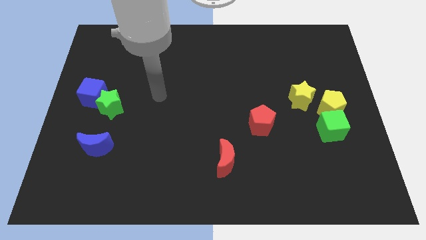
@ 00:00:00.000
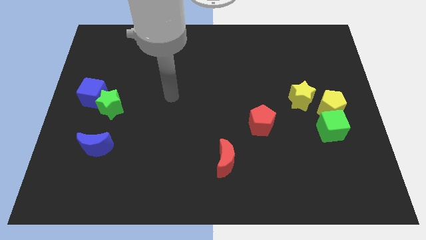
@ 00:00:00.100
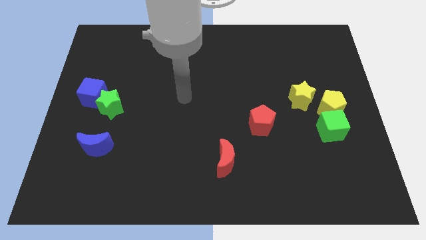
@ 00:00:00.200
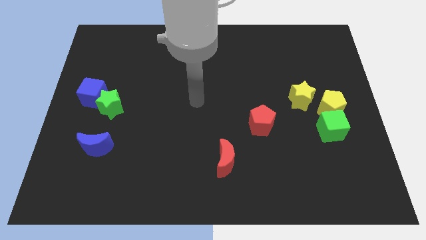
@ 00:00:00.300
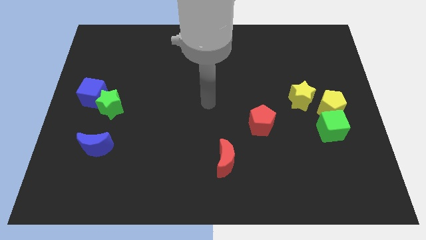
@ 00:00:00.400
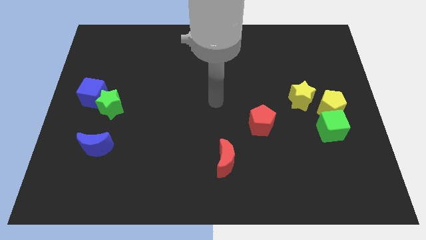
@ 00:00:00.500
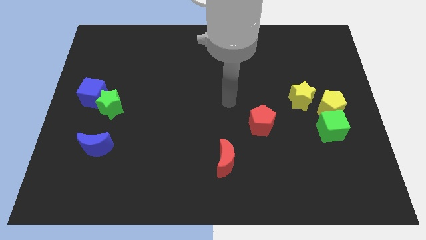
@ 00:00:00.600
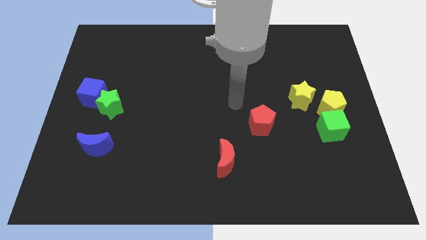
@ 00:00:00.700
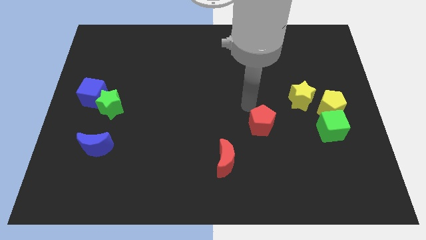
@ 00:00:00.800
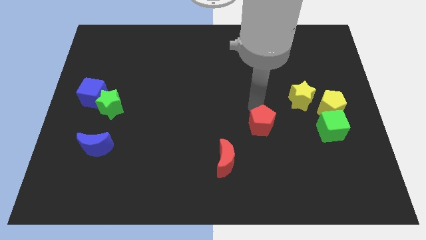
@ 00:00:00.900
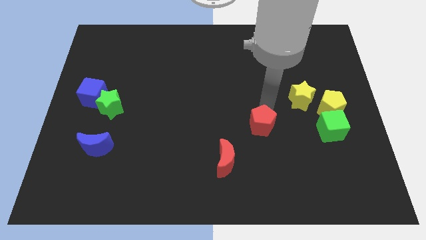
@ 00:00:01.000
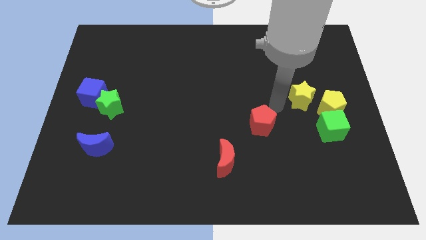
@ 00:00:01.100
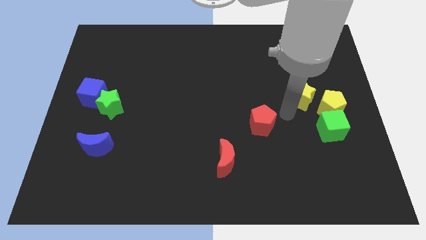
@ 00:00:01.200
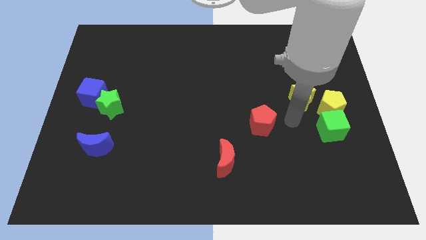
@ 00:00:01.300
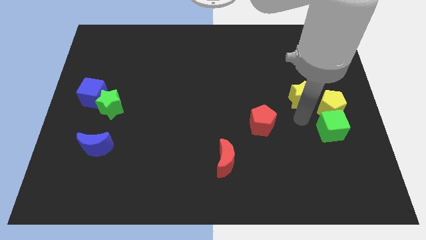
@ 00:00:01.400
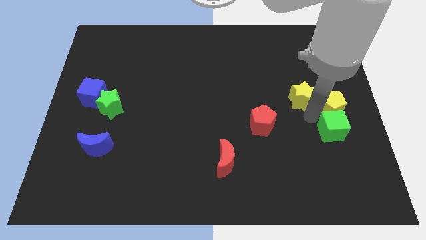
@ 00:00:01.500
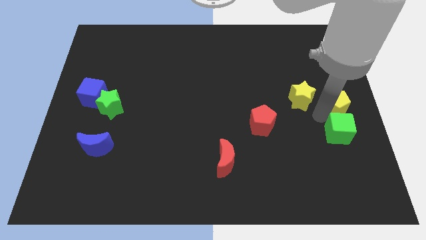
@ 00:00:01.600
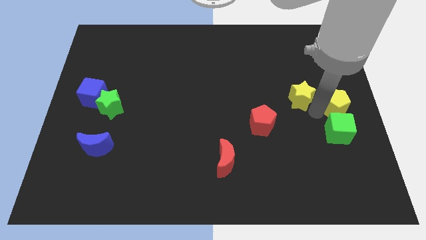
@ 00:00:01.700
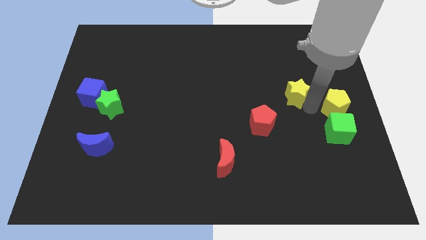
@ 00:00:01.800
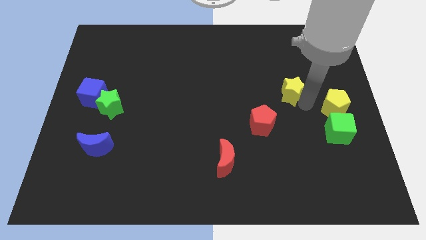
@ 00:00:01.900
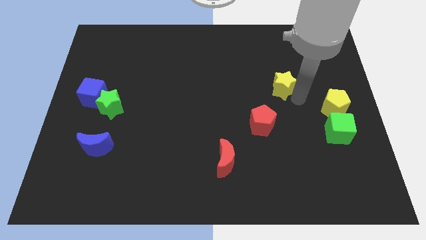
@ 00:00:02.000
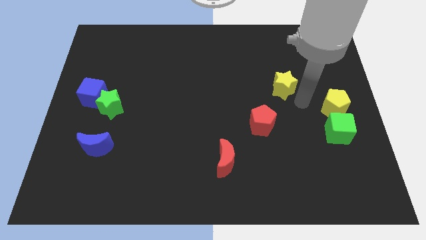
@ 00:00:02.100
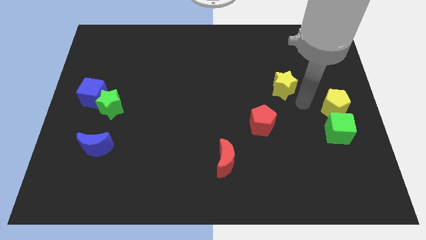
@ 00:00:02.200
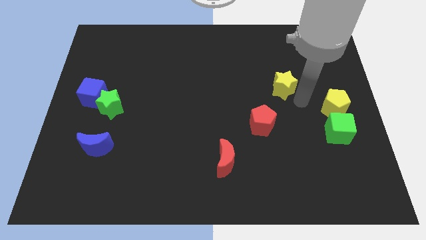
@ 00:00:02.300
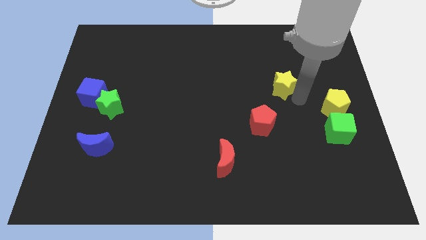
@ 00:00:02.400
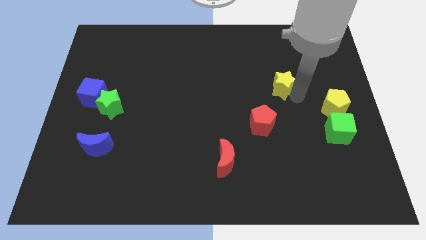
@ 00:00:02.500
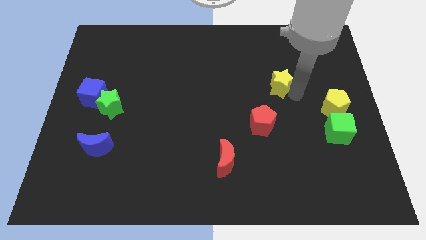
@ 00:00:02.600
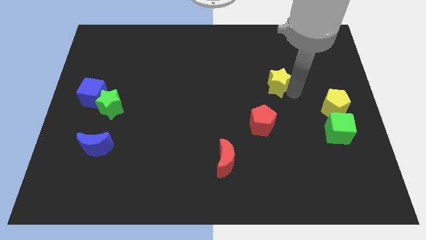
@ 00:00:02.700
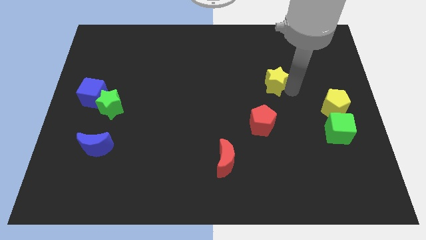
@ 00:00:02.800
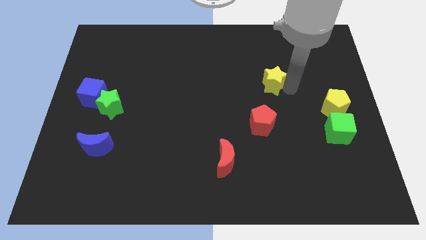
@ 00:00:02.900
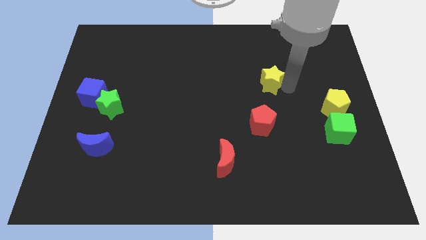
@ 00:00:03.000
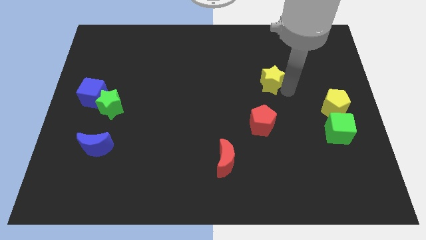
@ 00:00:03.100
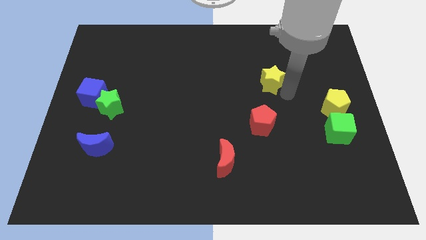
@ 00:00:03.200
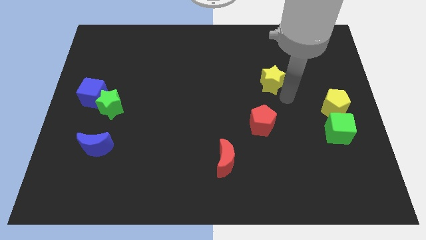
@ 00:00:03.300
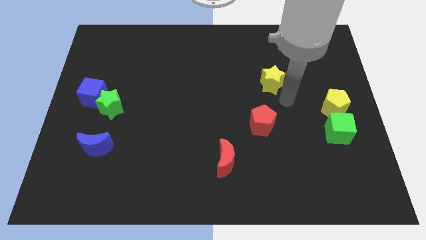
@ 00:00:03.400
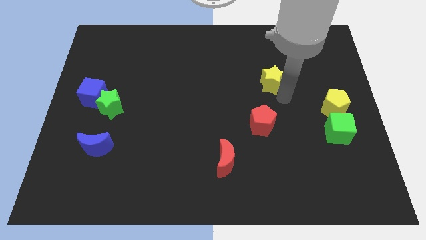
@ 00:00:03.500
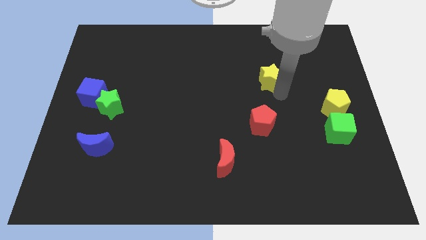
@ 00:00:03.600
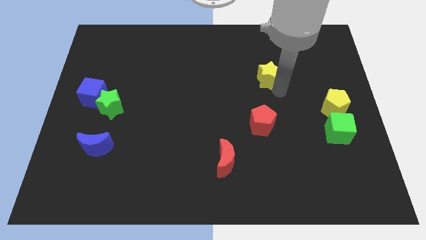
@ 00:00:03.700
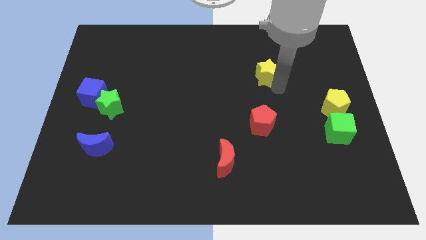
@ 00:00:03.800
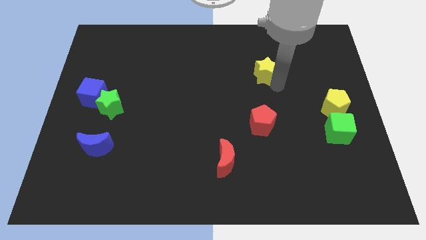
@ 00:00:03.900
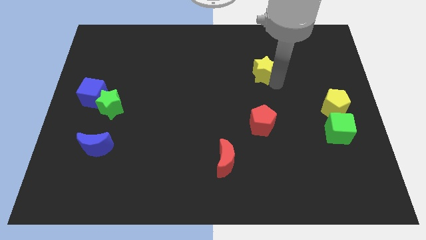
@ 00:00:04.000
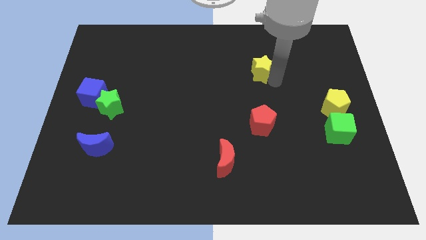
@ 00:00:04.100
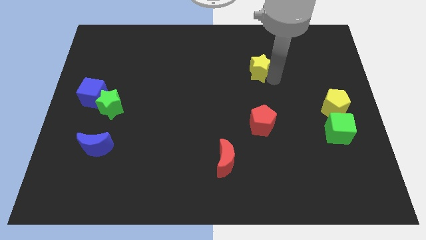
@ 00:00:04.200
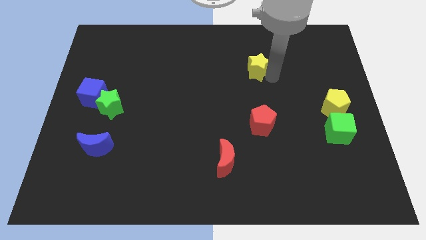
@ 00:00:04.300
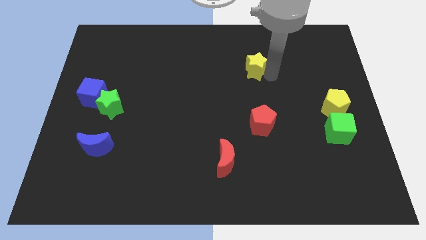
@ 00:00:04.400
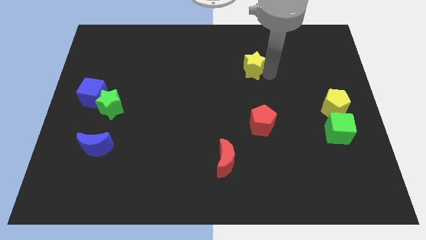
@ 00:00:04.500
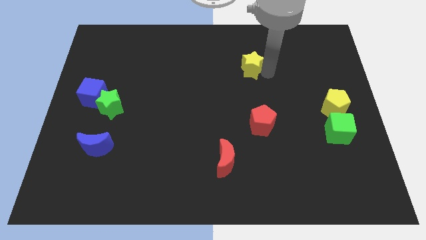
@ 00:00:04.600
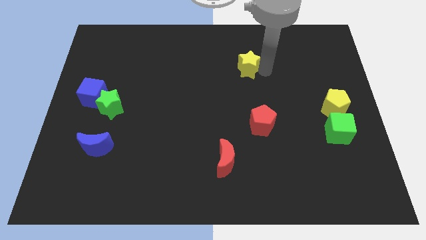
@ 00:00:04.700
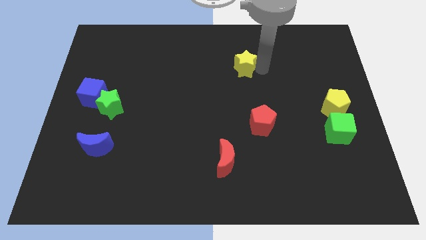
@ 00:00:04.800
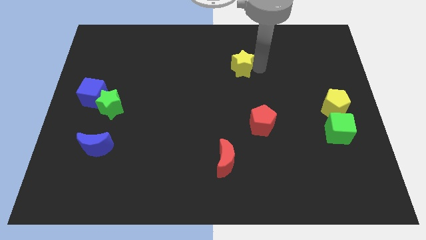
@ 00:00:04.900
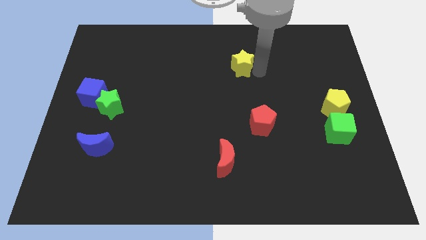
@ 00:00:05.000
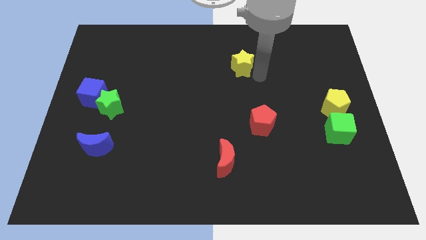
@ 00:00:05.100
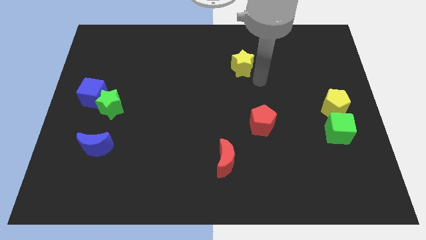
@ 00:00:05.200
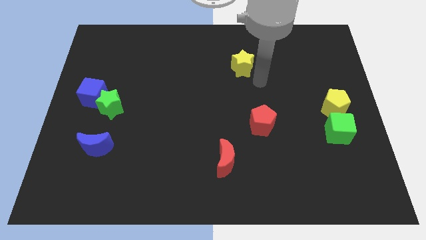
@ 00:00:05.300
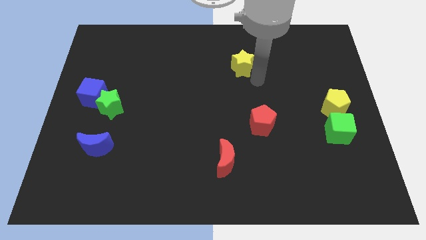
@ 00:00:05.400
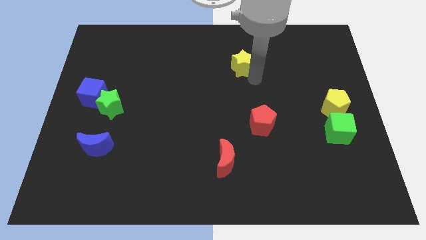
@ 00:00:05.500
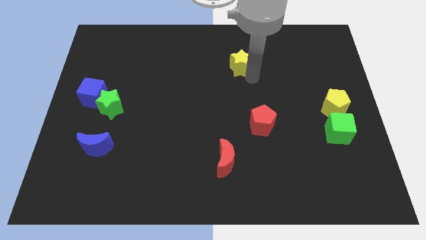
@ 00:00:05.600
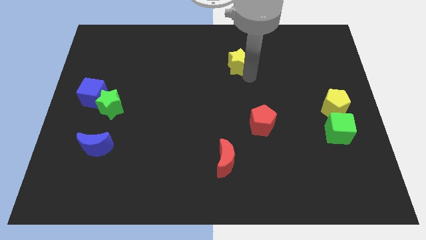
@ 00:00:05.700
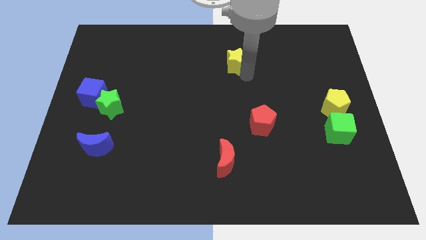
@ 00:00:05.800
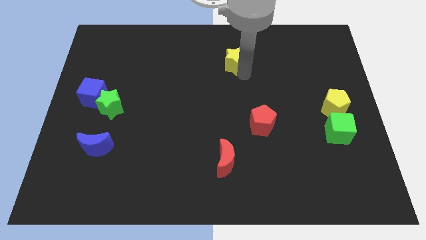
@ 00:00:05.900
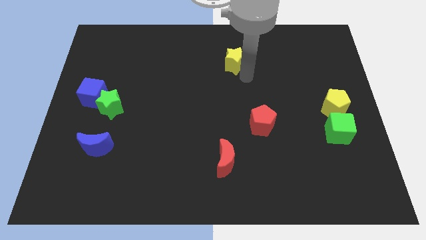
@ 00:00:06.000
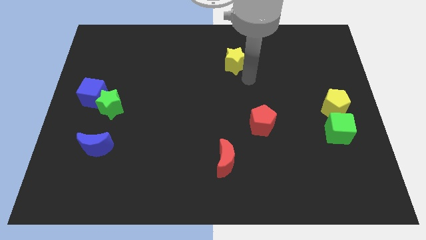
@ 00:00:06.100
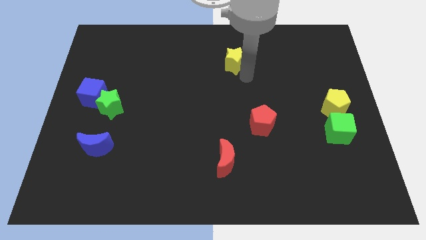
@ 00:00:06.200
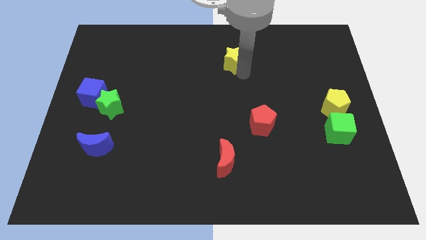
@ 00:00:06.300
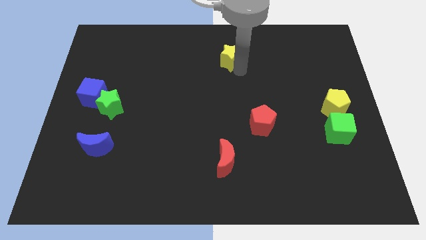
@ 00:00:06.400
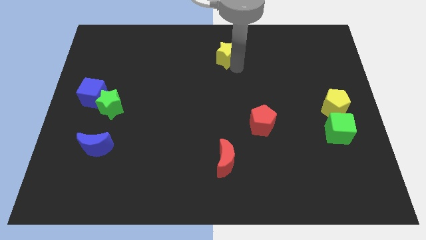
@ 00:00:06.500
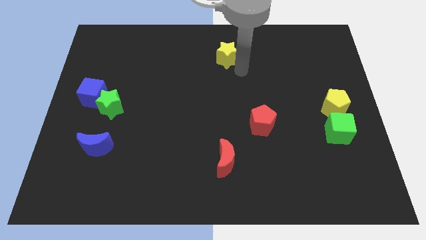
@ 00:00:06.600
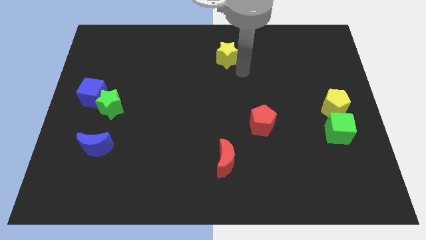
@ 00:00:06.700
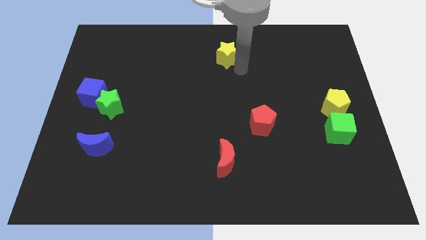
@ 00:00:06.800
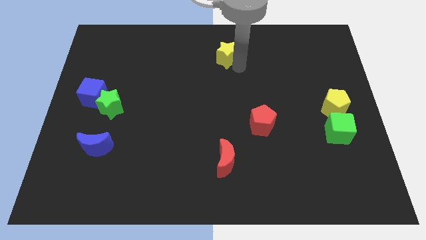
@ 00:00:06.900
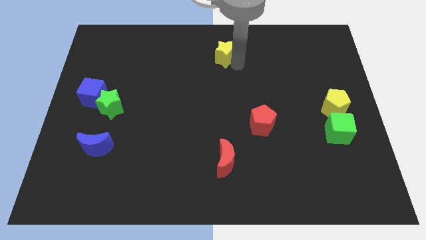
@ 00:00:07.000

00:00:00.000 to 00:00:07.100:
slide the yellow star to the top
